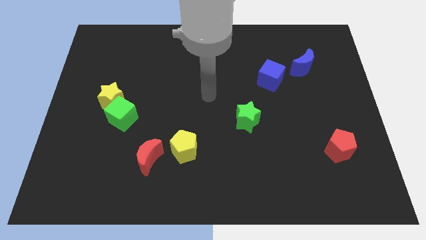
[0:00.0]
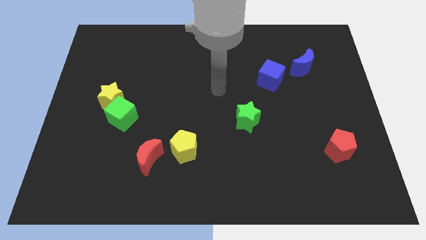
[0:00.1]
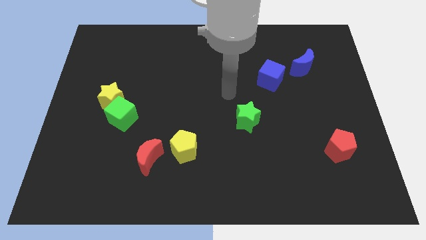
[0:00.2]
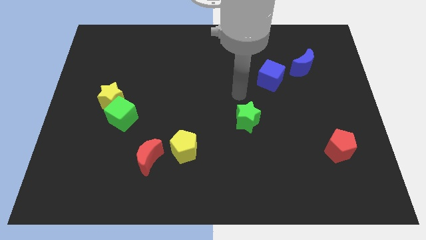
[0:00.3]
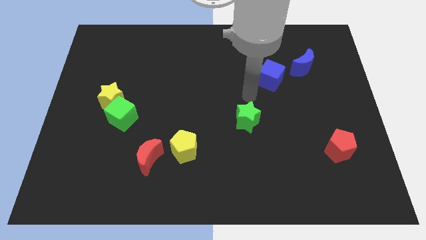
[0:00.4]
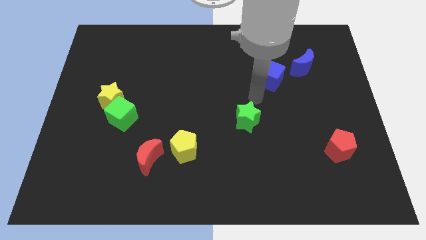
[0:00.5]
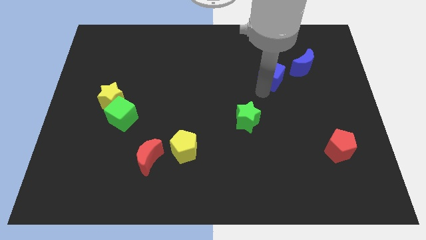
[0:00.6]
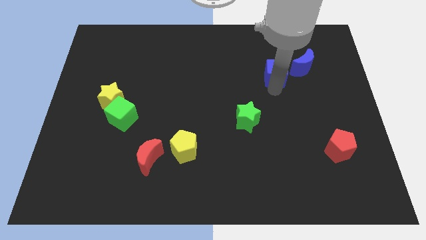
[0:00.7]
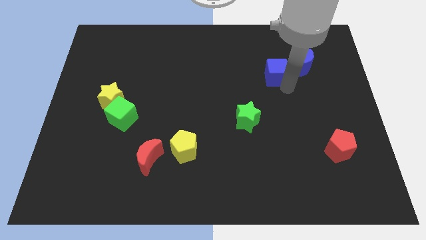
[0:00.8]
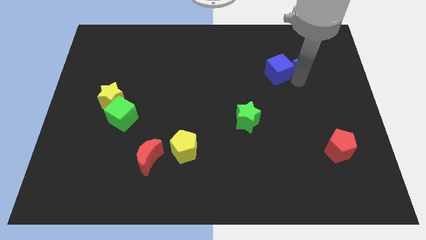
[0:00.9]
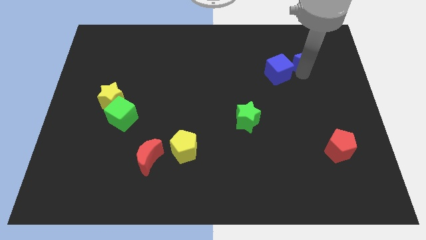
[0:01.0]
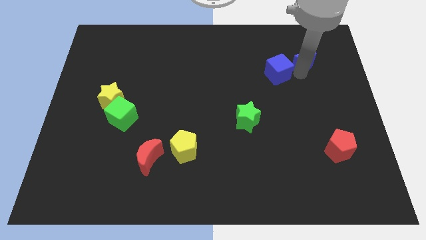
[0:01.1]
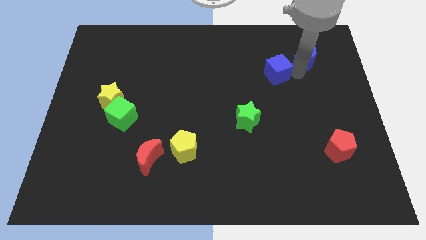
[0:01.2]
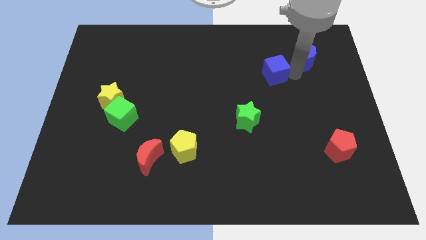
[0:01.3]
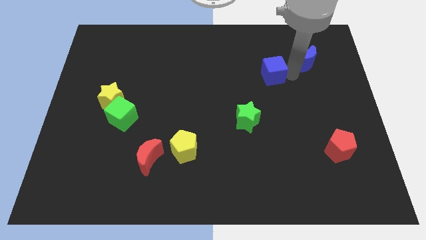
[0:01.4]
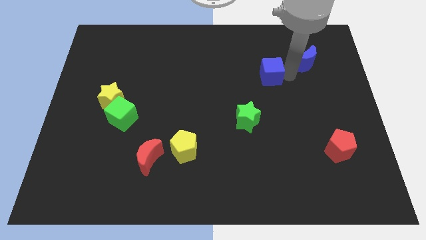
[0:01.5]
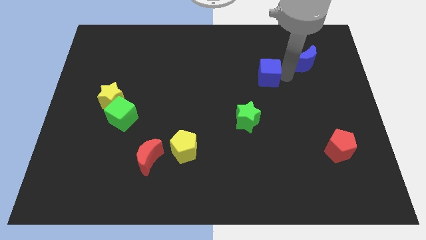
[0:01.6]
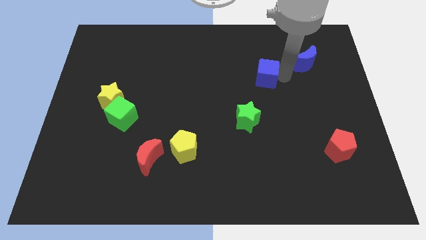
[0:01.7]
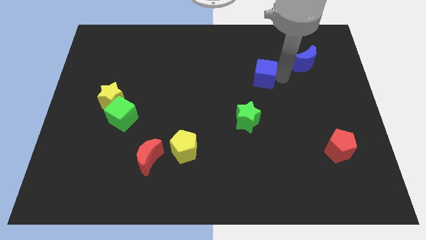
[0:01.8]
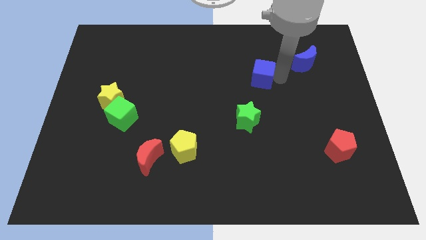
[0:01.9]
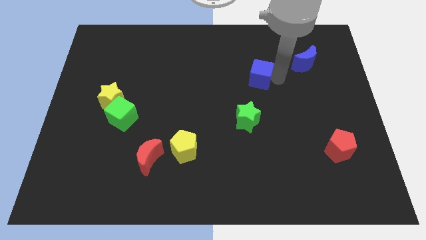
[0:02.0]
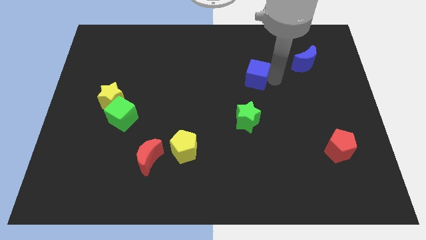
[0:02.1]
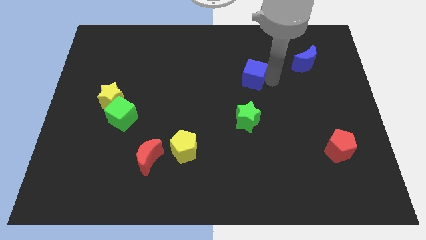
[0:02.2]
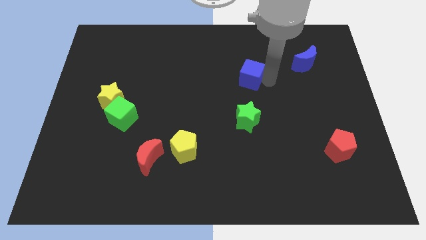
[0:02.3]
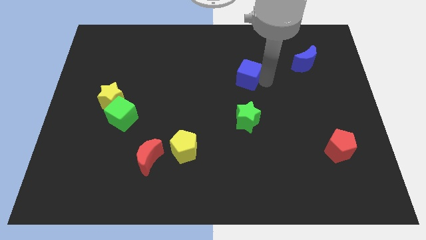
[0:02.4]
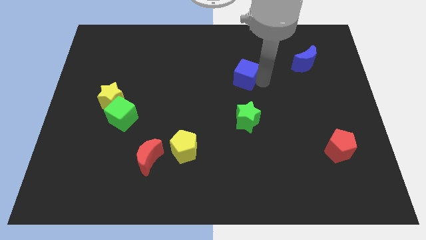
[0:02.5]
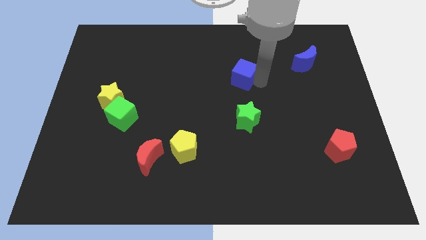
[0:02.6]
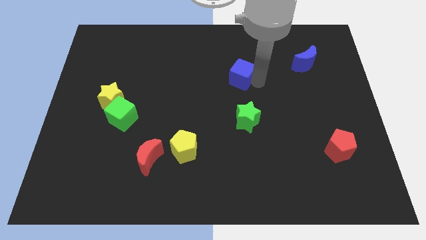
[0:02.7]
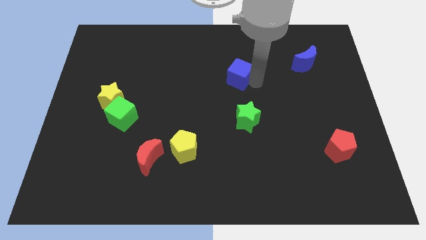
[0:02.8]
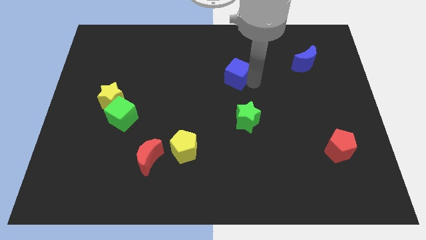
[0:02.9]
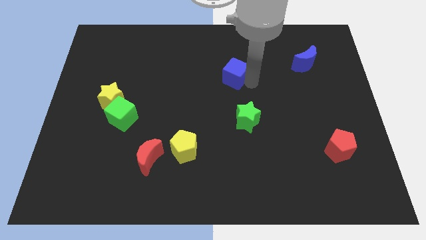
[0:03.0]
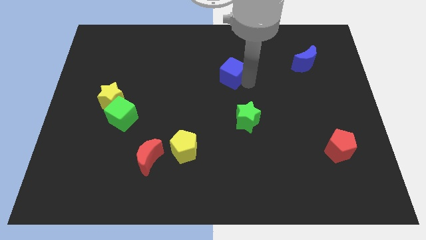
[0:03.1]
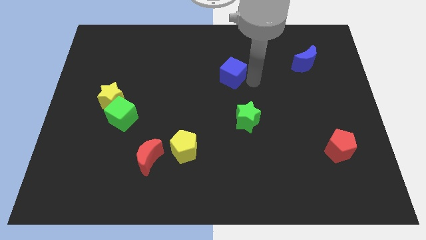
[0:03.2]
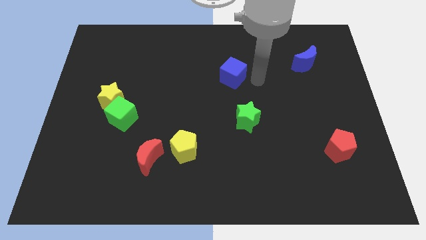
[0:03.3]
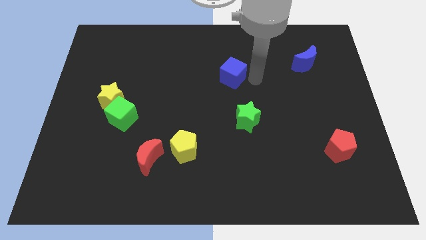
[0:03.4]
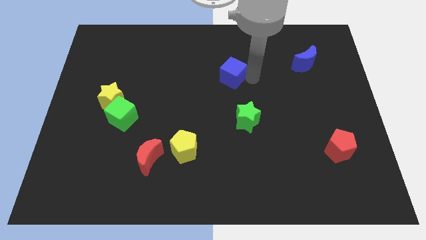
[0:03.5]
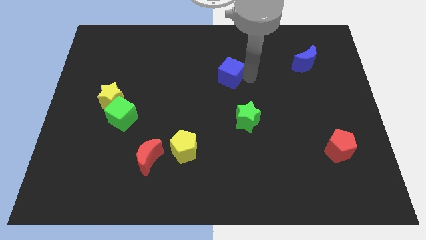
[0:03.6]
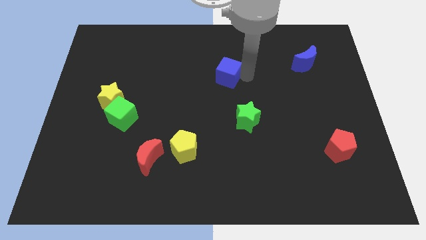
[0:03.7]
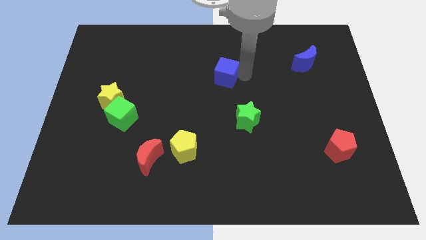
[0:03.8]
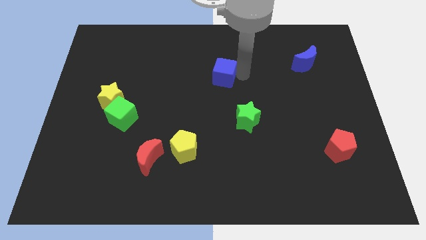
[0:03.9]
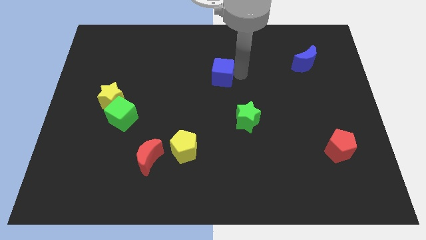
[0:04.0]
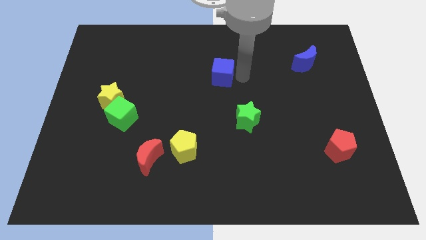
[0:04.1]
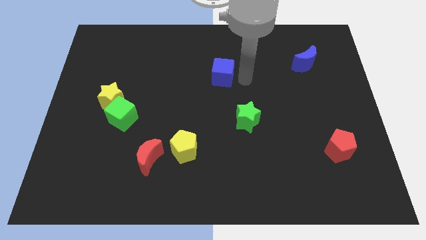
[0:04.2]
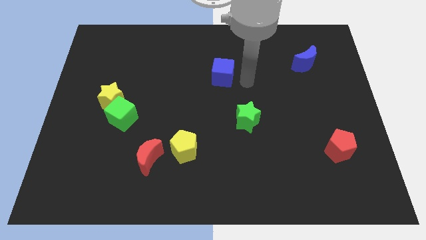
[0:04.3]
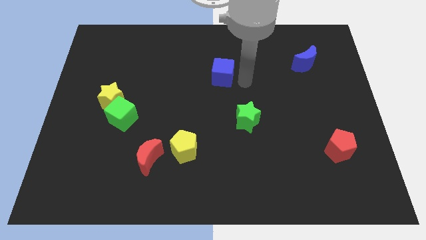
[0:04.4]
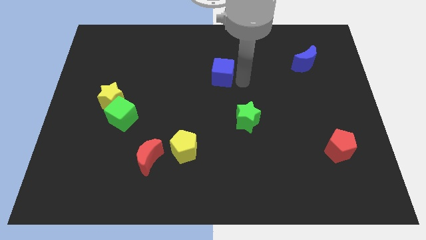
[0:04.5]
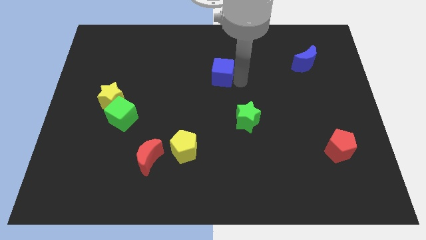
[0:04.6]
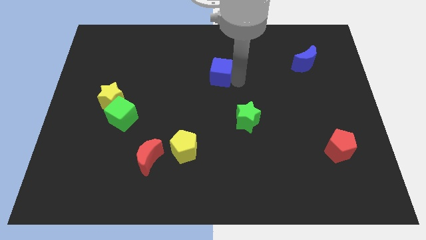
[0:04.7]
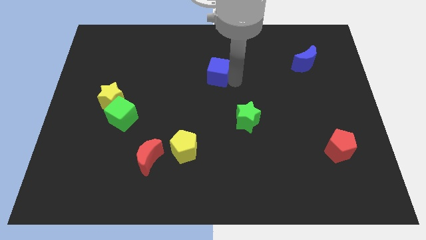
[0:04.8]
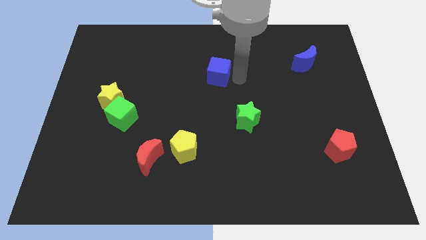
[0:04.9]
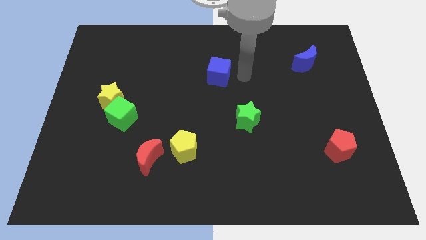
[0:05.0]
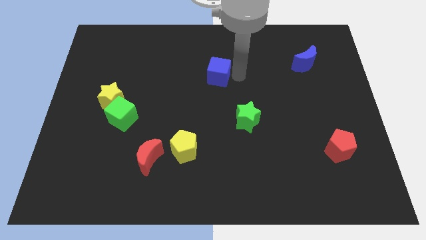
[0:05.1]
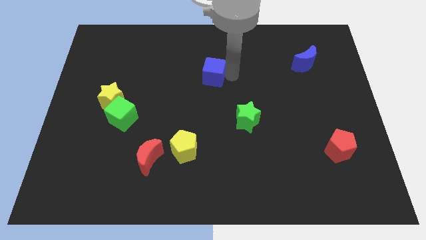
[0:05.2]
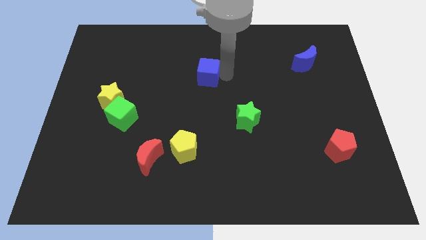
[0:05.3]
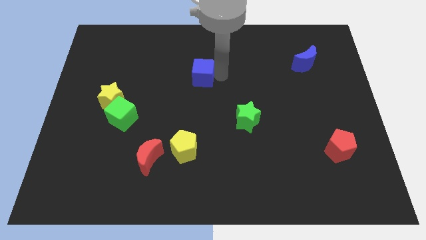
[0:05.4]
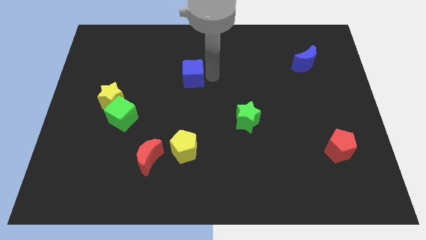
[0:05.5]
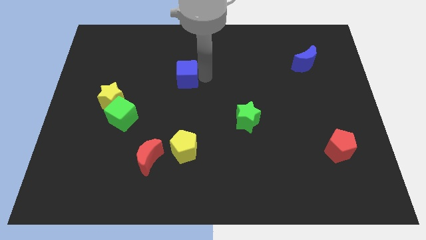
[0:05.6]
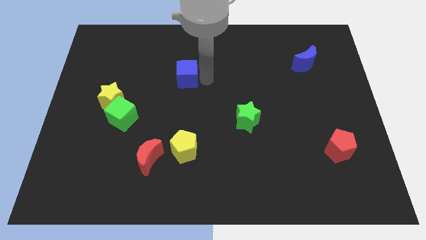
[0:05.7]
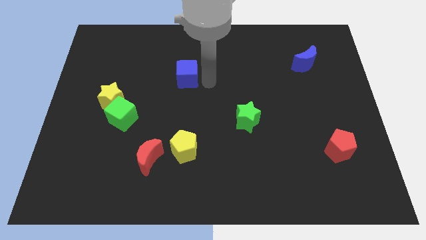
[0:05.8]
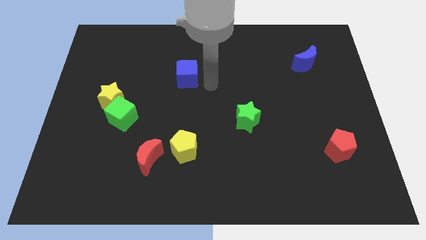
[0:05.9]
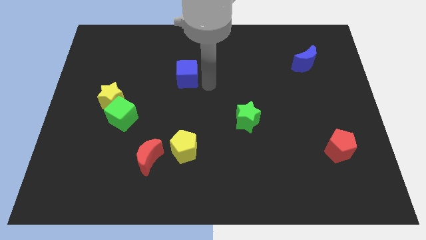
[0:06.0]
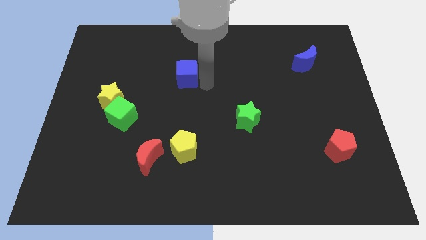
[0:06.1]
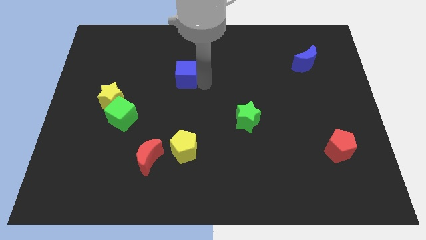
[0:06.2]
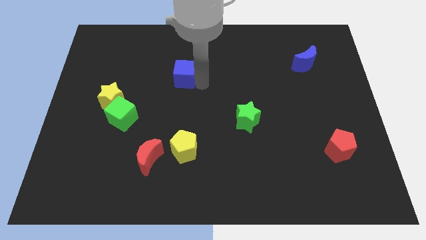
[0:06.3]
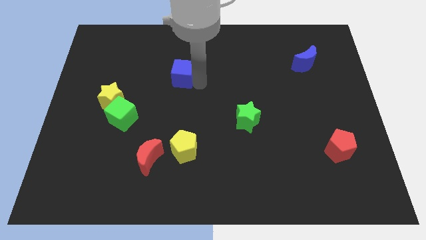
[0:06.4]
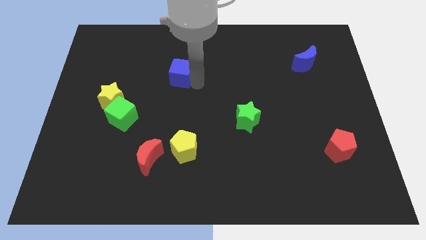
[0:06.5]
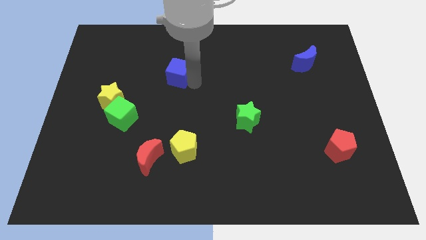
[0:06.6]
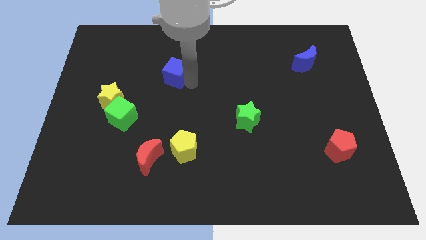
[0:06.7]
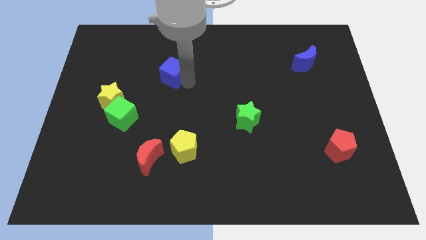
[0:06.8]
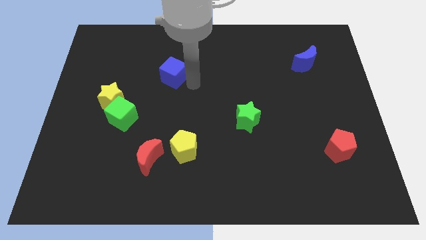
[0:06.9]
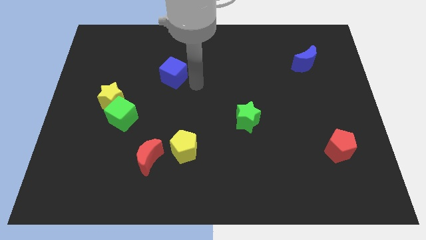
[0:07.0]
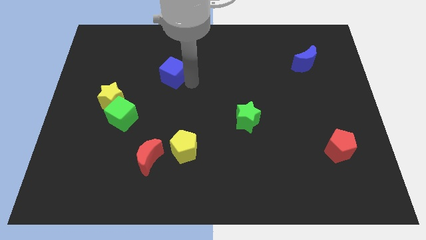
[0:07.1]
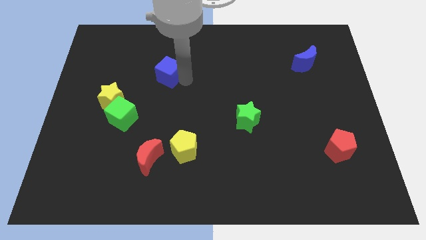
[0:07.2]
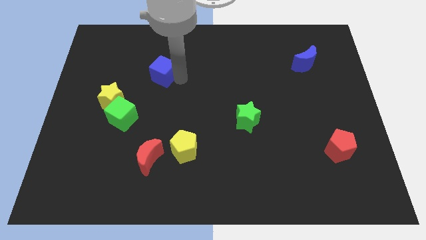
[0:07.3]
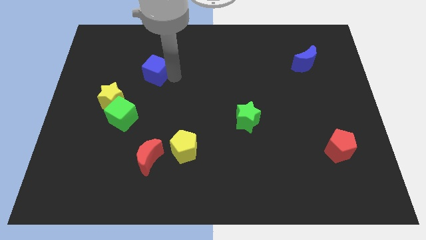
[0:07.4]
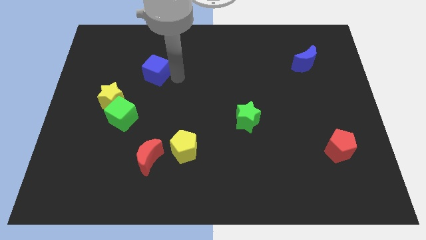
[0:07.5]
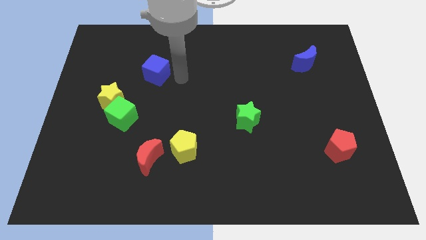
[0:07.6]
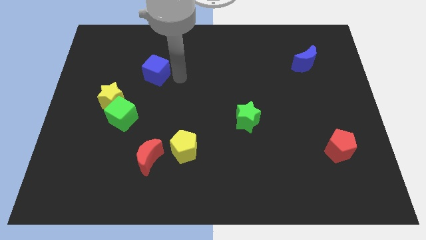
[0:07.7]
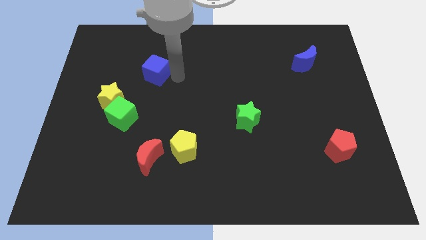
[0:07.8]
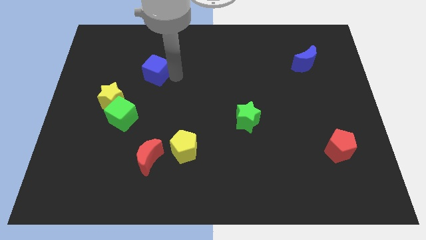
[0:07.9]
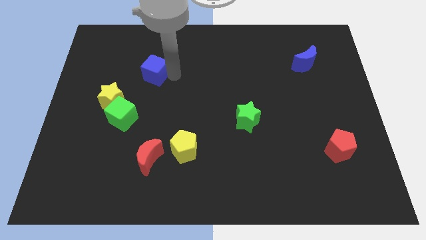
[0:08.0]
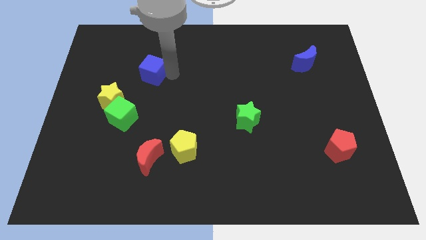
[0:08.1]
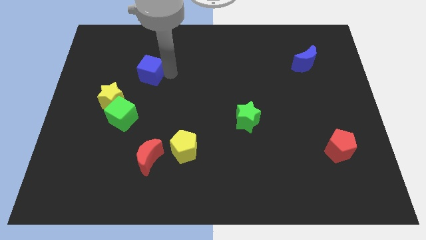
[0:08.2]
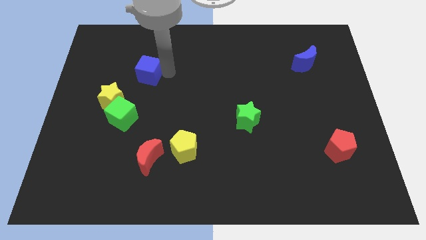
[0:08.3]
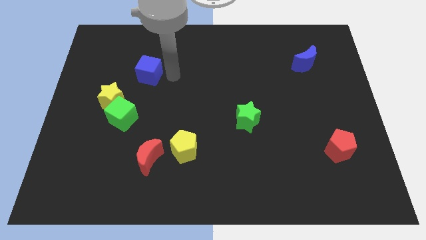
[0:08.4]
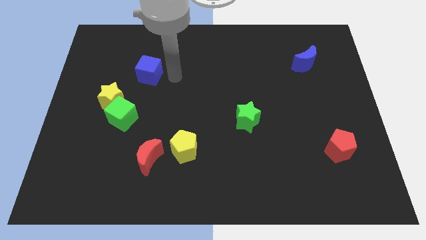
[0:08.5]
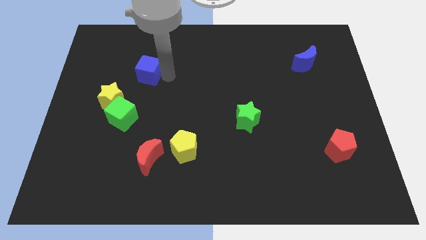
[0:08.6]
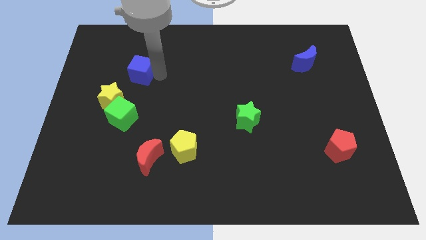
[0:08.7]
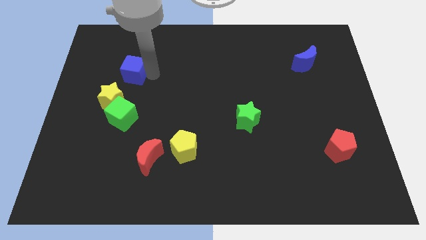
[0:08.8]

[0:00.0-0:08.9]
slide the blue cube to the top side of the yellow star
